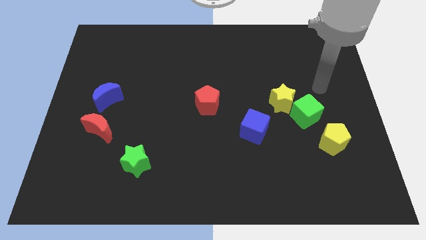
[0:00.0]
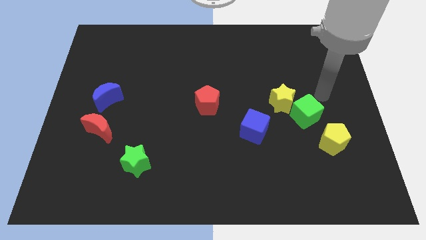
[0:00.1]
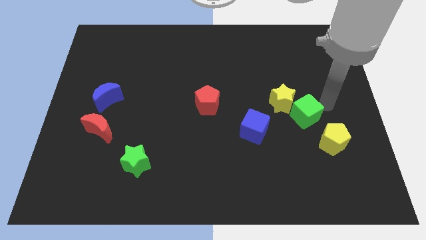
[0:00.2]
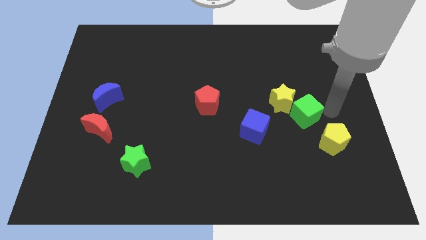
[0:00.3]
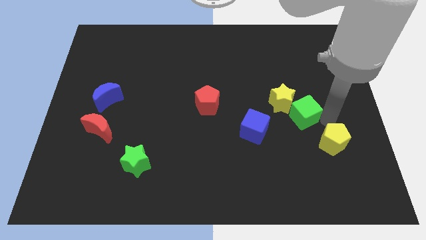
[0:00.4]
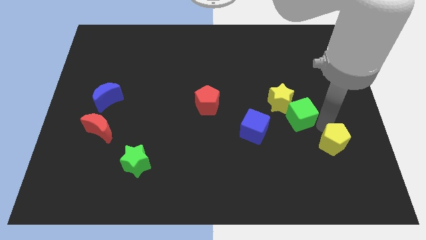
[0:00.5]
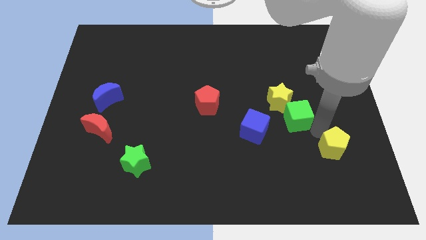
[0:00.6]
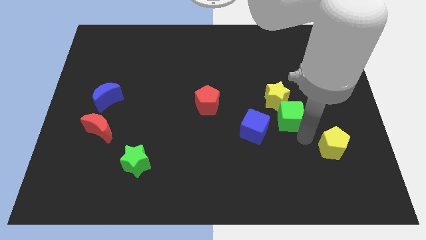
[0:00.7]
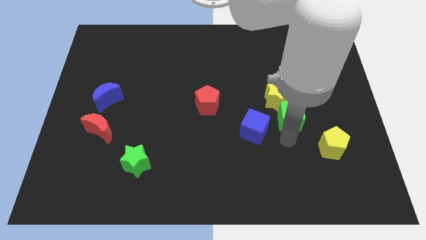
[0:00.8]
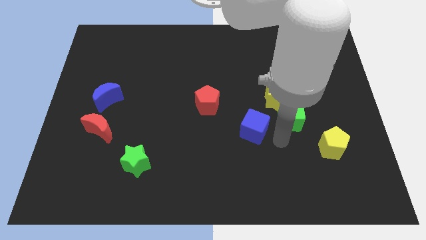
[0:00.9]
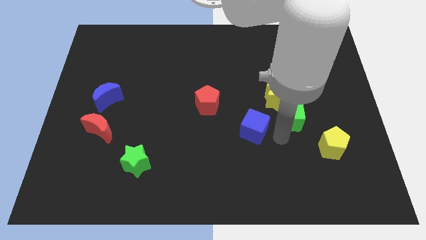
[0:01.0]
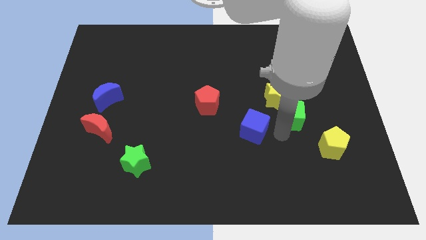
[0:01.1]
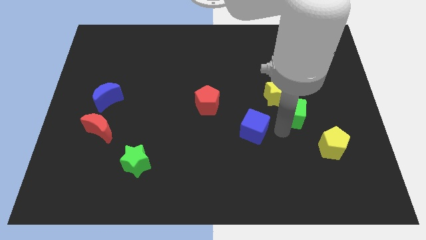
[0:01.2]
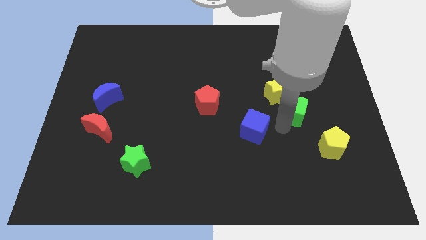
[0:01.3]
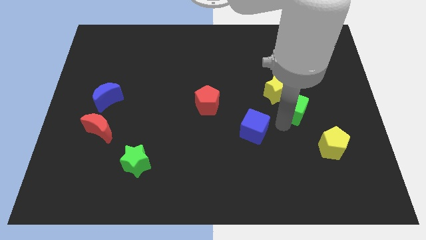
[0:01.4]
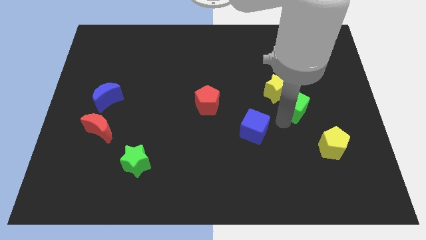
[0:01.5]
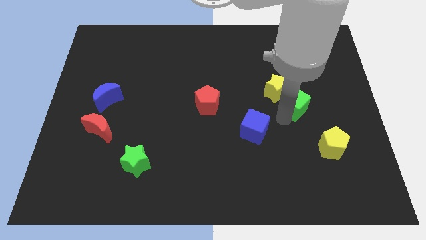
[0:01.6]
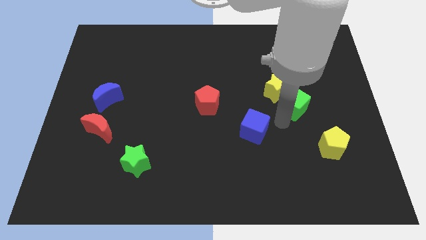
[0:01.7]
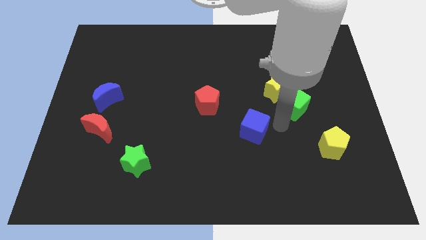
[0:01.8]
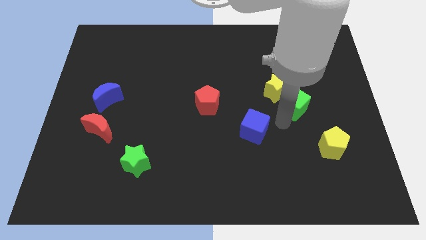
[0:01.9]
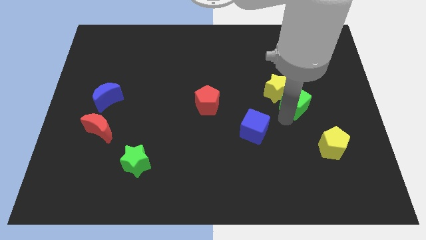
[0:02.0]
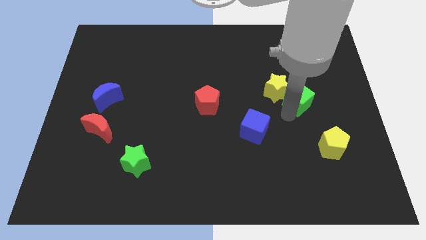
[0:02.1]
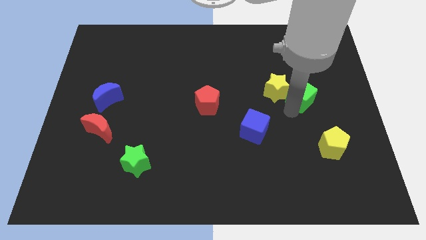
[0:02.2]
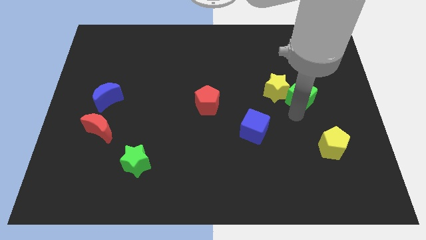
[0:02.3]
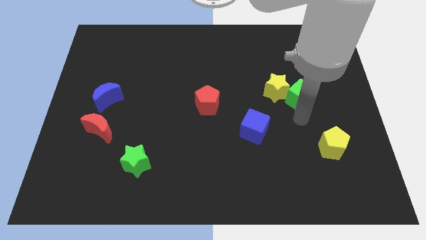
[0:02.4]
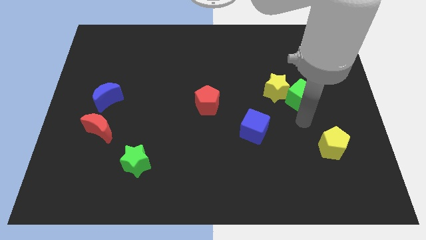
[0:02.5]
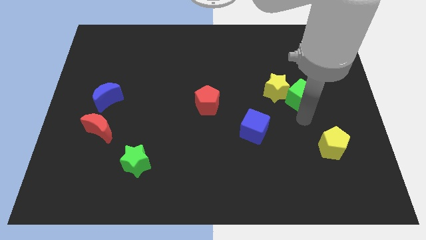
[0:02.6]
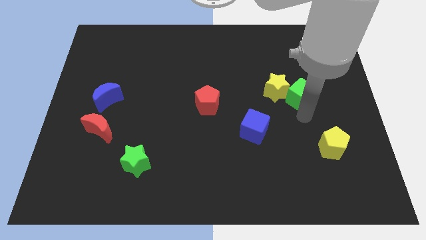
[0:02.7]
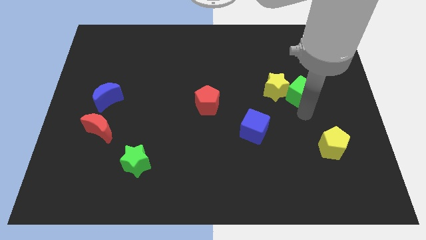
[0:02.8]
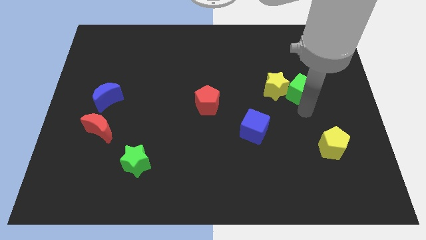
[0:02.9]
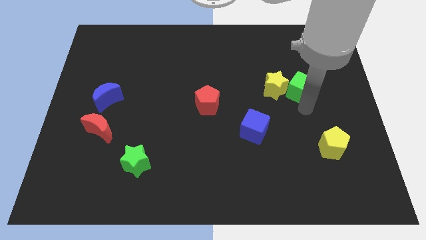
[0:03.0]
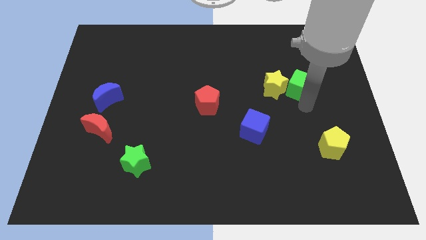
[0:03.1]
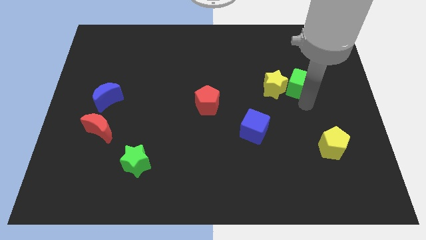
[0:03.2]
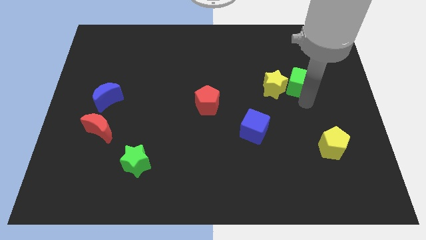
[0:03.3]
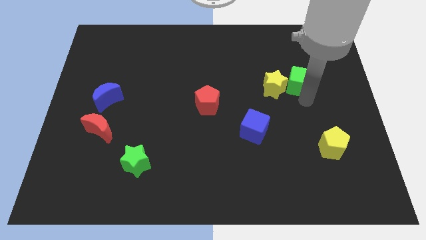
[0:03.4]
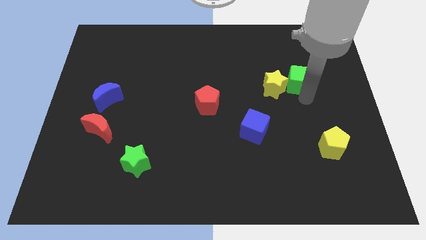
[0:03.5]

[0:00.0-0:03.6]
pull the green cube apart from the yellow star and yellow pentagon

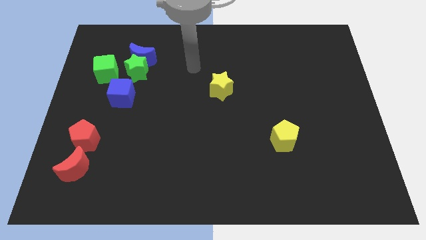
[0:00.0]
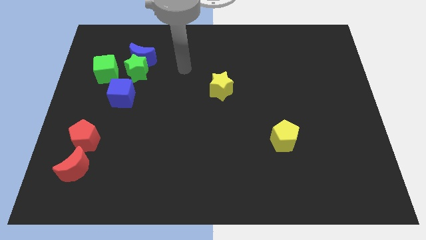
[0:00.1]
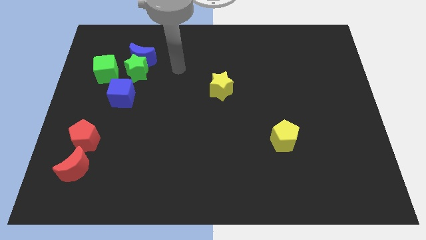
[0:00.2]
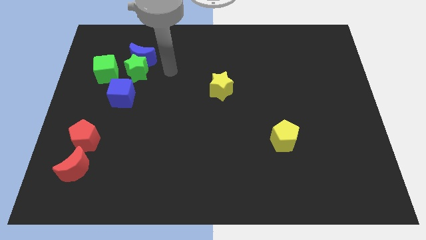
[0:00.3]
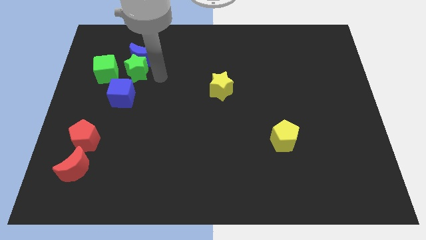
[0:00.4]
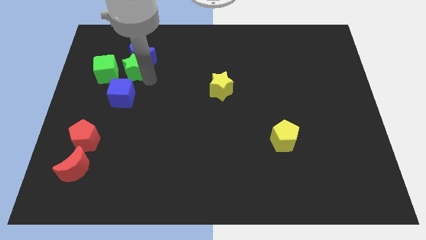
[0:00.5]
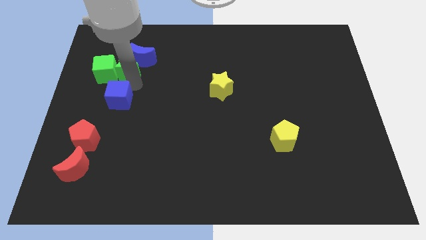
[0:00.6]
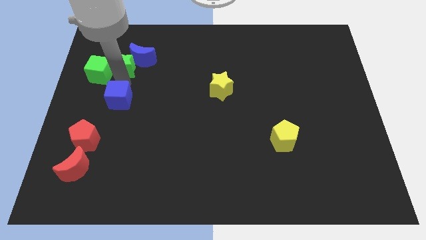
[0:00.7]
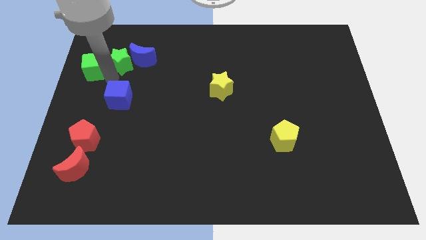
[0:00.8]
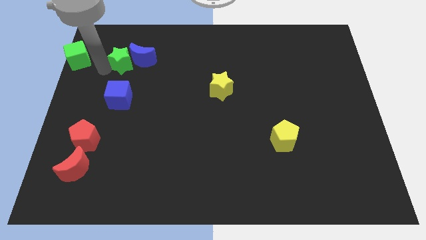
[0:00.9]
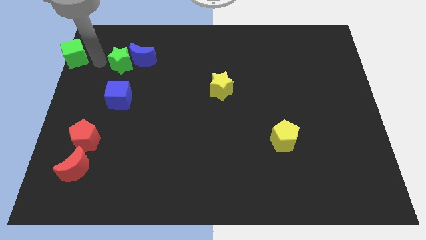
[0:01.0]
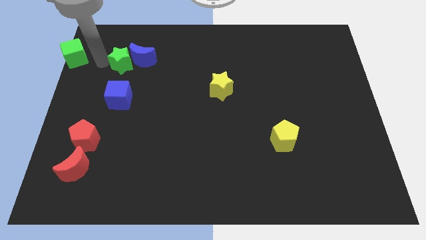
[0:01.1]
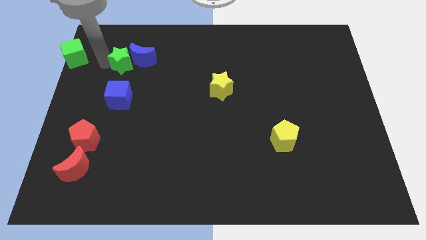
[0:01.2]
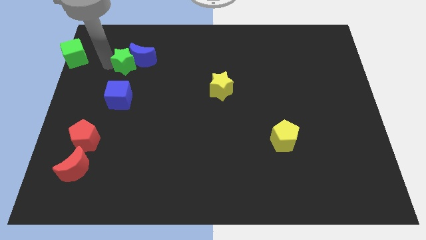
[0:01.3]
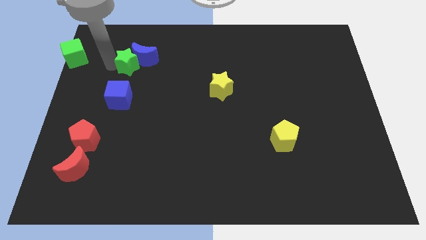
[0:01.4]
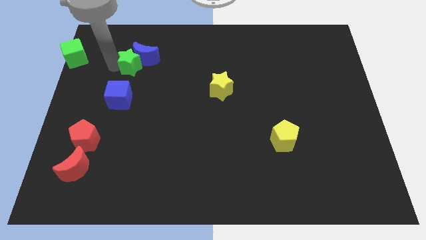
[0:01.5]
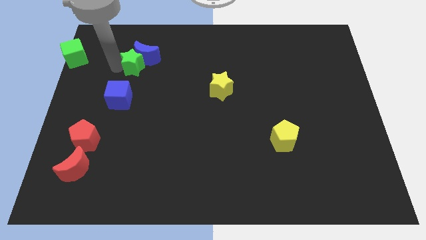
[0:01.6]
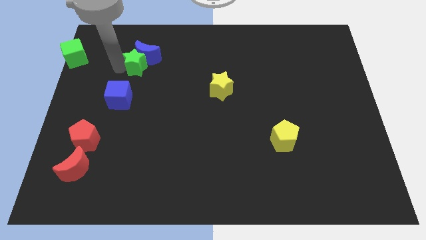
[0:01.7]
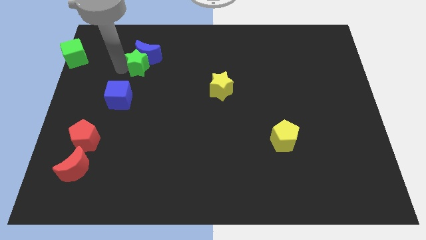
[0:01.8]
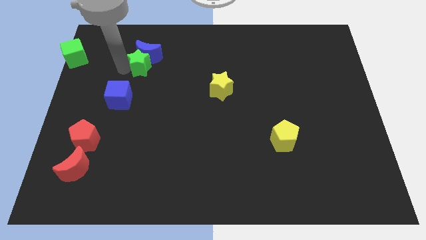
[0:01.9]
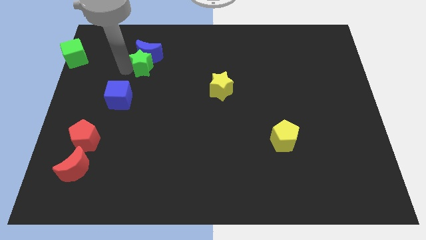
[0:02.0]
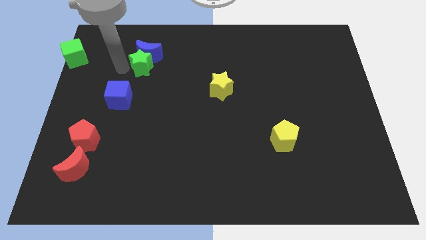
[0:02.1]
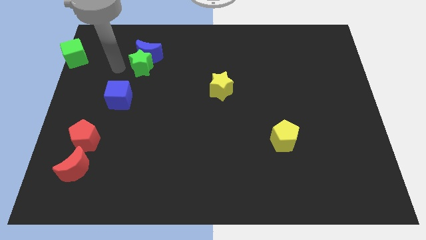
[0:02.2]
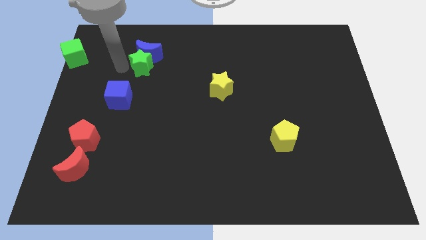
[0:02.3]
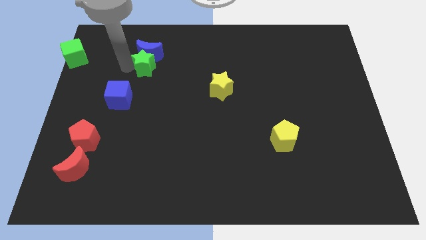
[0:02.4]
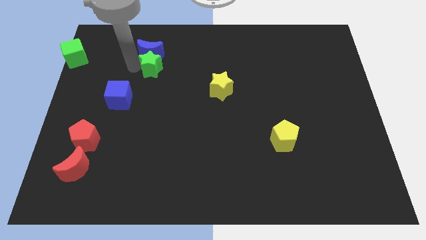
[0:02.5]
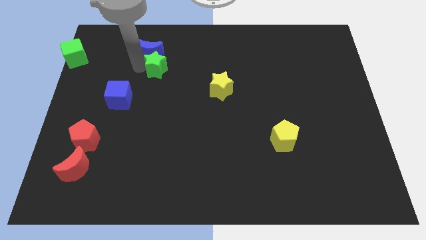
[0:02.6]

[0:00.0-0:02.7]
pull the green star apart from the blue moon, green cube, and blue cube

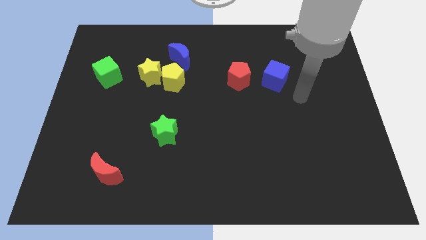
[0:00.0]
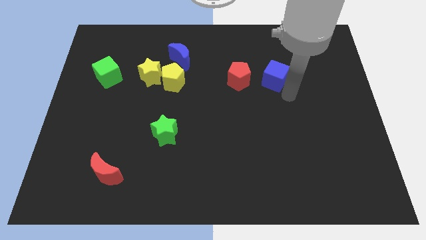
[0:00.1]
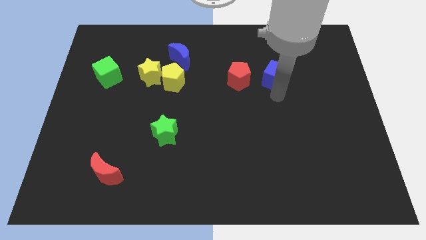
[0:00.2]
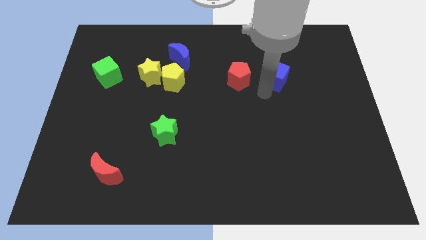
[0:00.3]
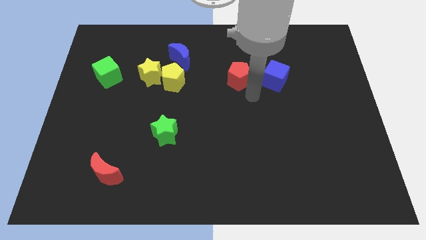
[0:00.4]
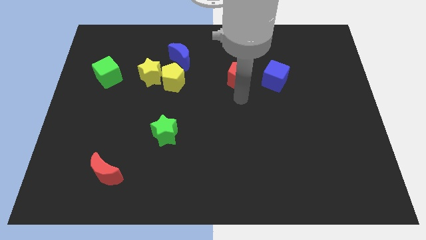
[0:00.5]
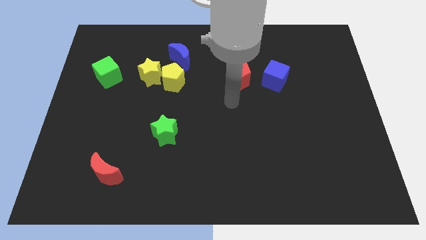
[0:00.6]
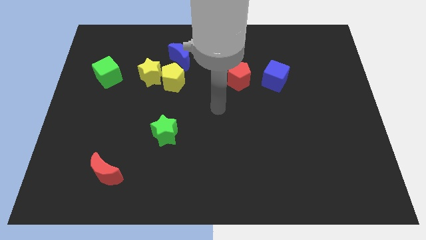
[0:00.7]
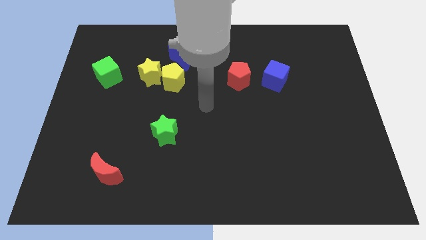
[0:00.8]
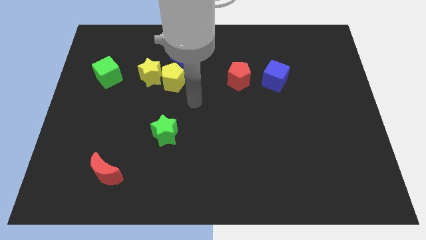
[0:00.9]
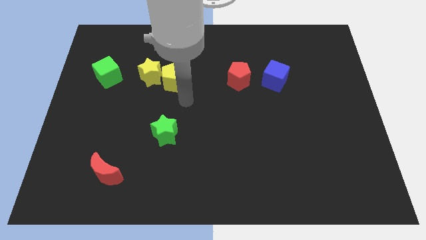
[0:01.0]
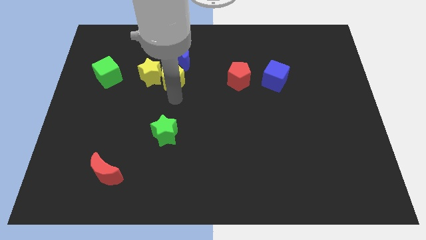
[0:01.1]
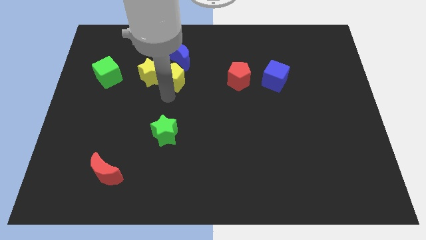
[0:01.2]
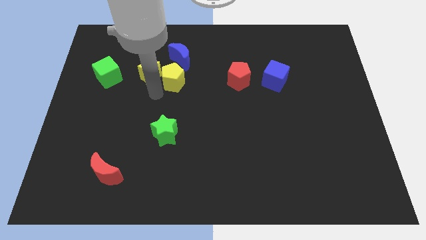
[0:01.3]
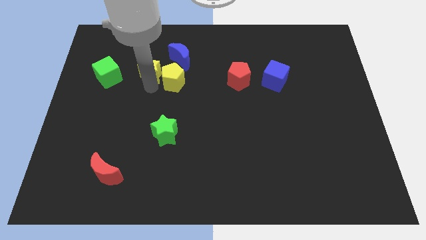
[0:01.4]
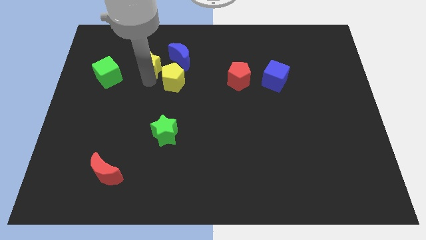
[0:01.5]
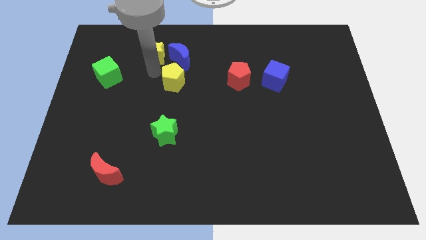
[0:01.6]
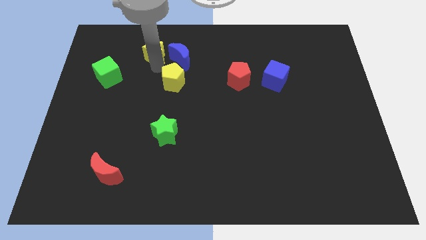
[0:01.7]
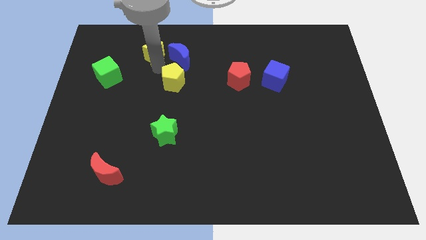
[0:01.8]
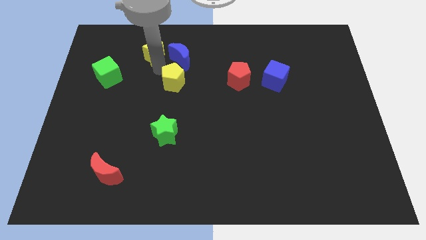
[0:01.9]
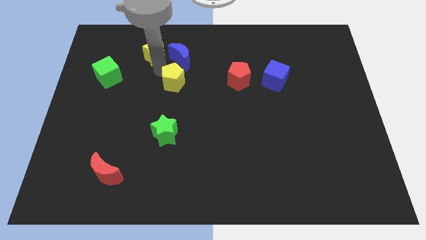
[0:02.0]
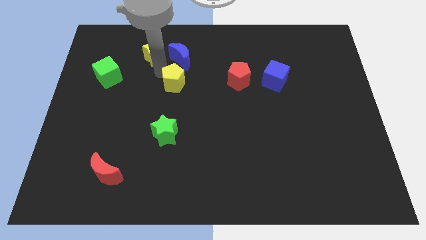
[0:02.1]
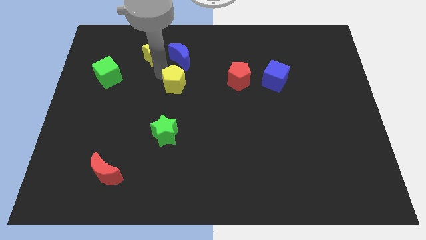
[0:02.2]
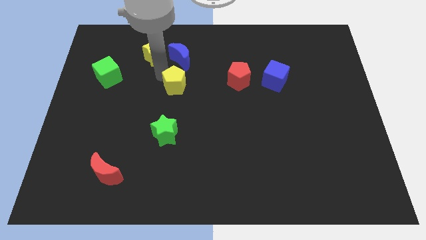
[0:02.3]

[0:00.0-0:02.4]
pull the yellow pentagon apart from the yellow star and blue moon

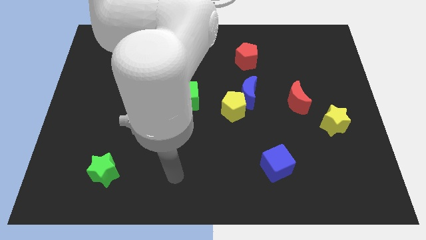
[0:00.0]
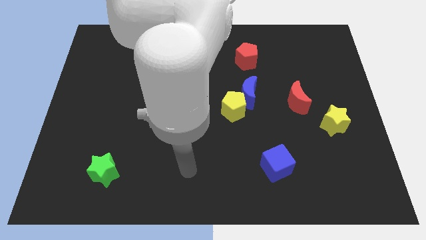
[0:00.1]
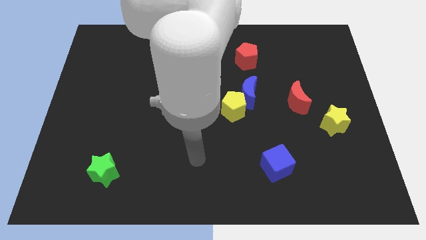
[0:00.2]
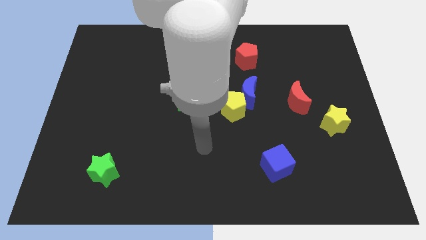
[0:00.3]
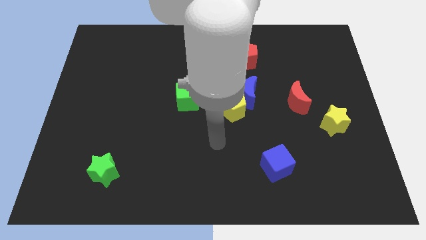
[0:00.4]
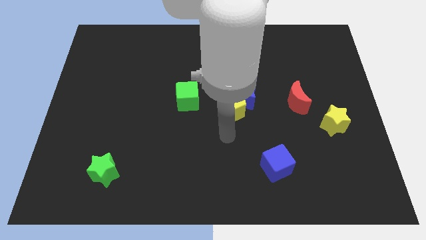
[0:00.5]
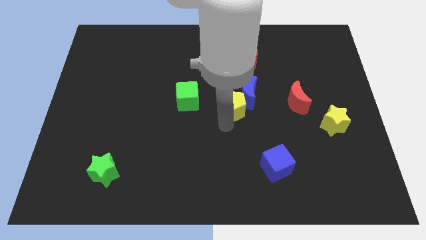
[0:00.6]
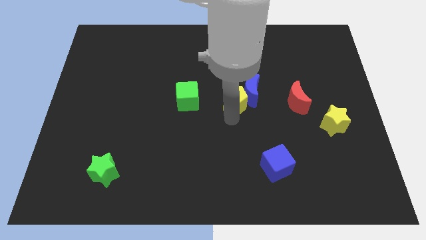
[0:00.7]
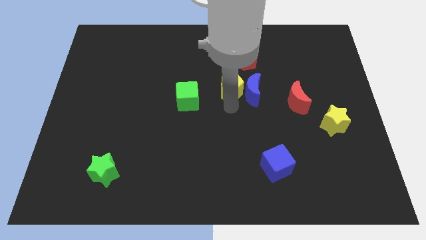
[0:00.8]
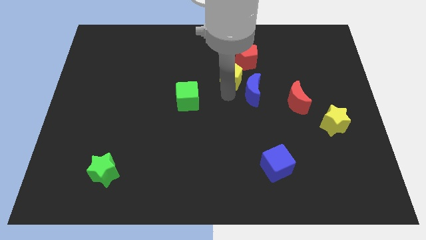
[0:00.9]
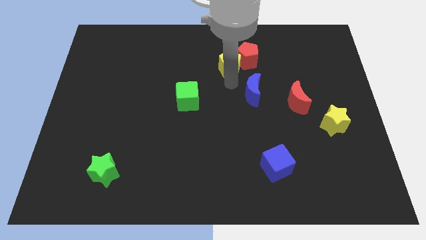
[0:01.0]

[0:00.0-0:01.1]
pull the blue moon apart from the yellow pentagon
